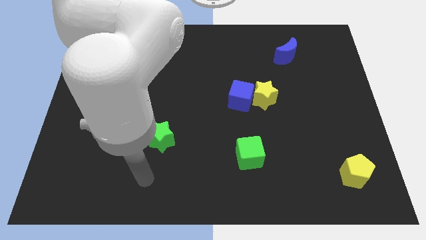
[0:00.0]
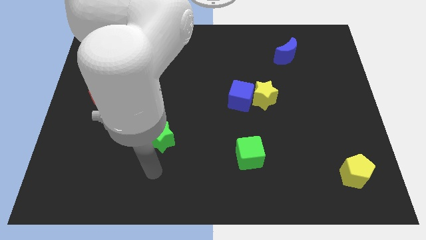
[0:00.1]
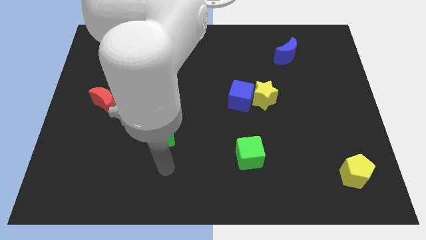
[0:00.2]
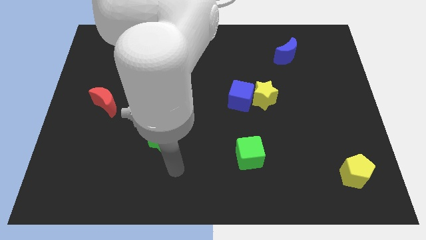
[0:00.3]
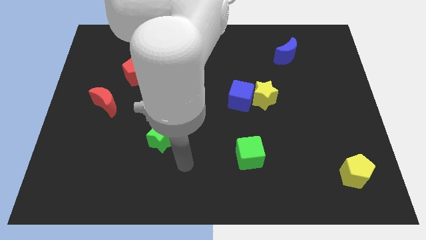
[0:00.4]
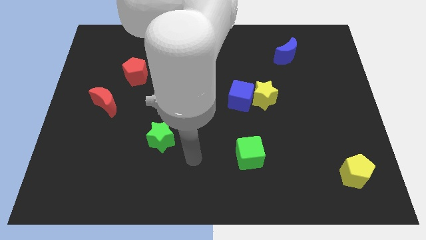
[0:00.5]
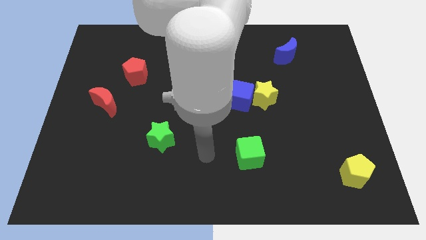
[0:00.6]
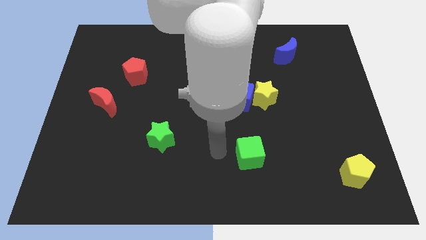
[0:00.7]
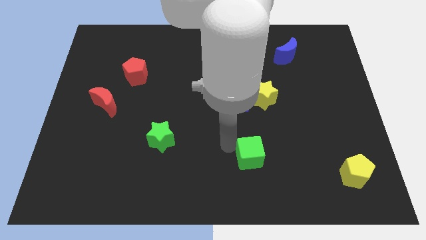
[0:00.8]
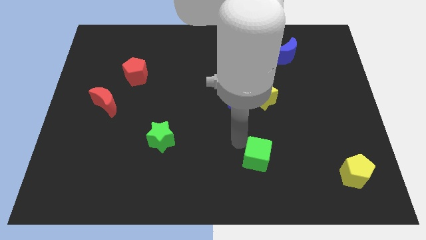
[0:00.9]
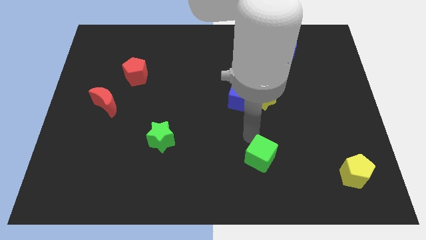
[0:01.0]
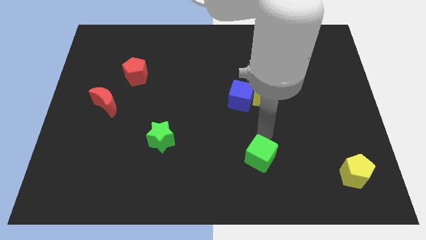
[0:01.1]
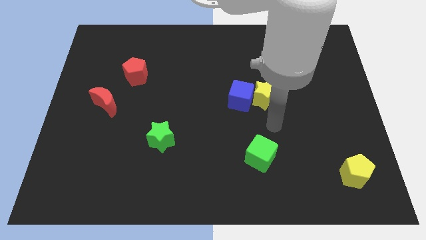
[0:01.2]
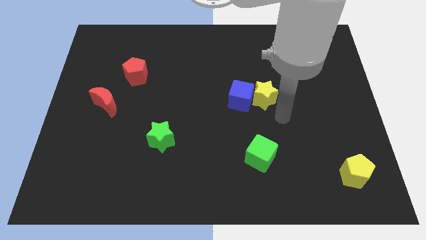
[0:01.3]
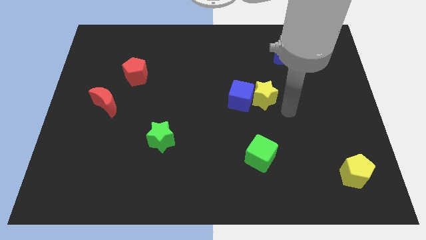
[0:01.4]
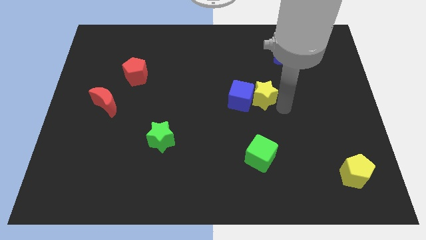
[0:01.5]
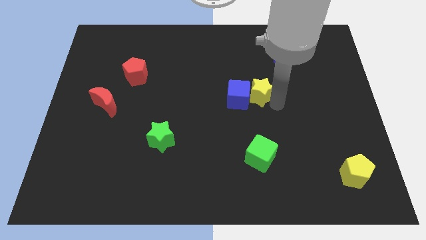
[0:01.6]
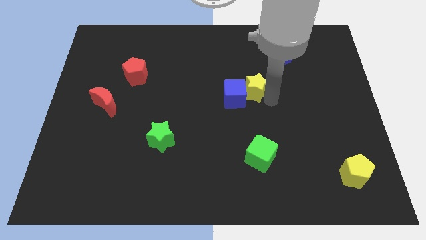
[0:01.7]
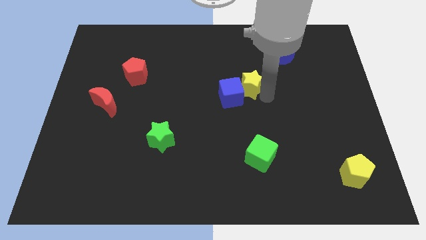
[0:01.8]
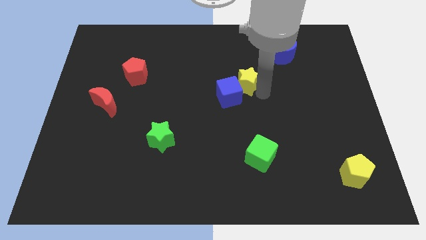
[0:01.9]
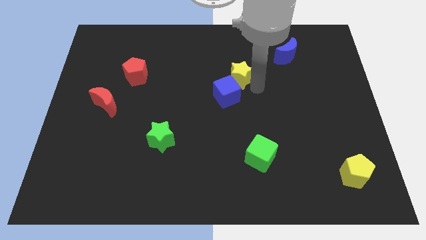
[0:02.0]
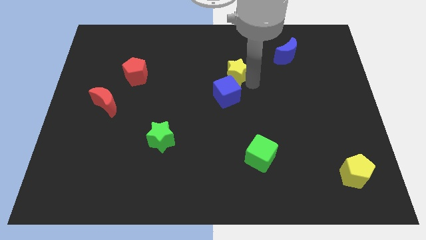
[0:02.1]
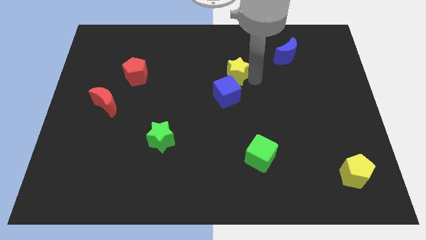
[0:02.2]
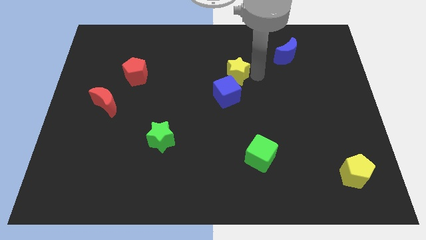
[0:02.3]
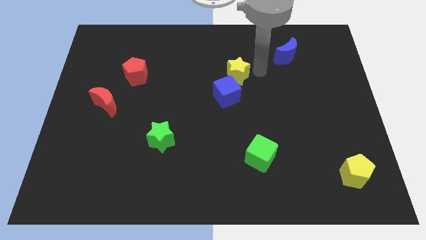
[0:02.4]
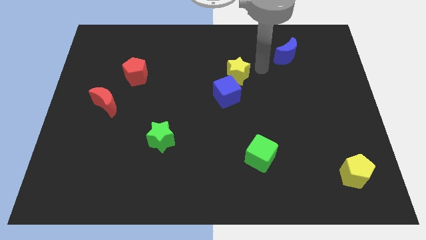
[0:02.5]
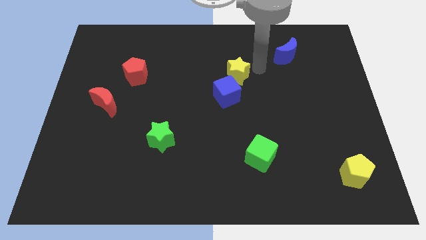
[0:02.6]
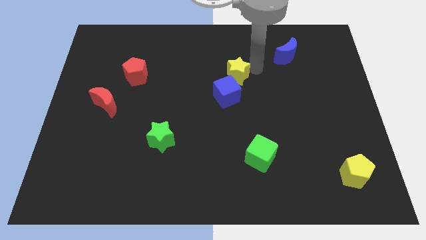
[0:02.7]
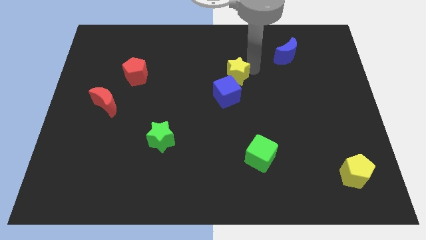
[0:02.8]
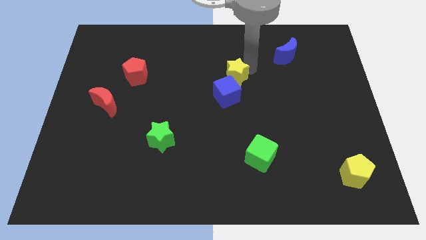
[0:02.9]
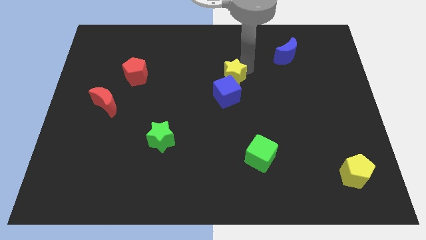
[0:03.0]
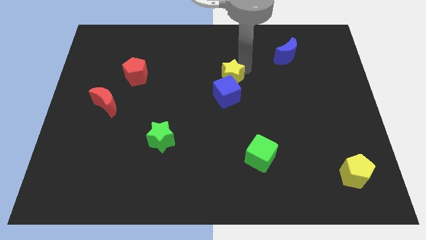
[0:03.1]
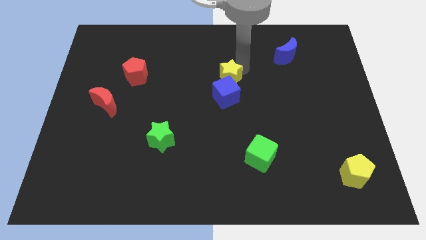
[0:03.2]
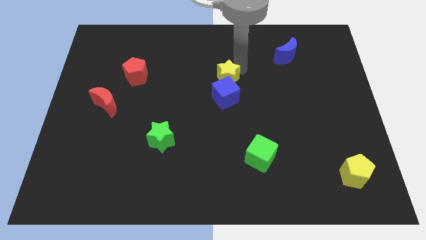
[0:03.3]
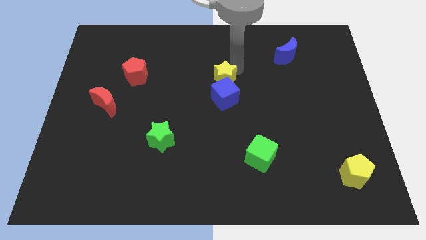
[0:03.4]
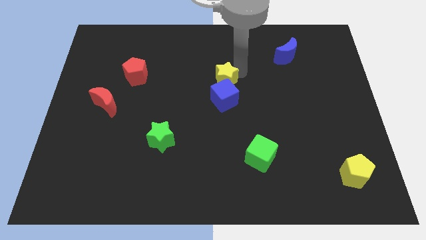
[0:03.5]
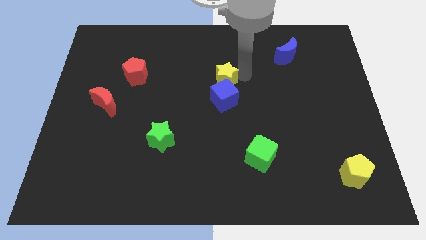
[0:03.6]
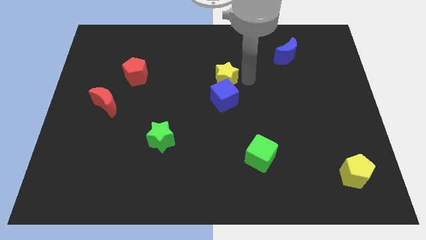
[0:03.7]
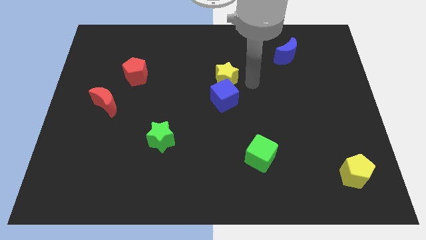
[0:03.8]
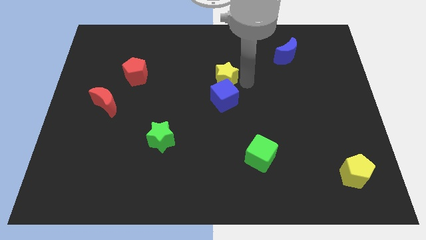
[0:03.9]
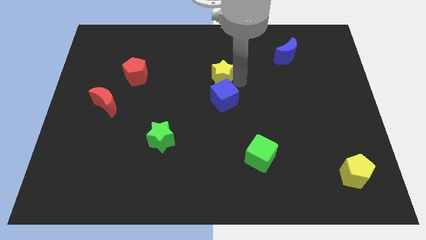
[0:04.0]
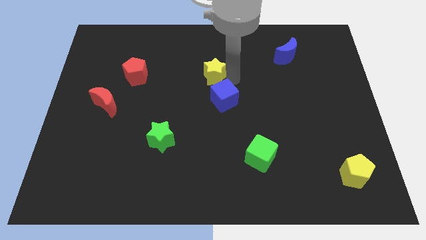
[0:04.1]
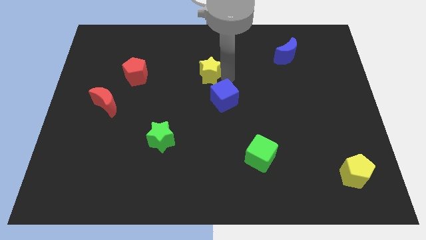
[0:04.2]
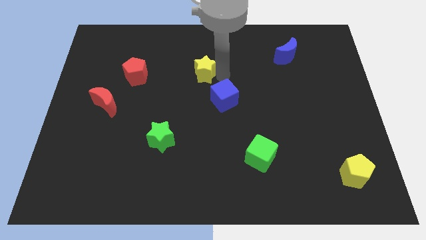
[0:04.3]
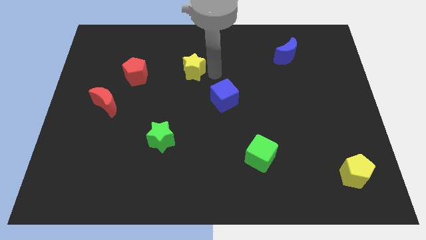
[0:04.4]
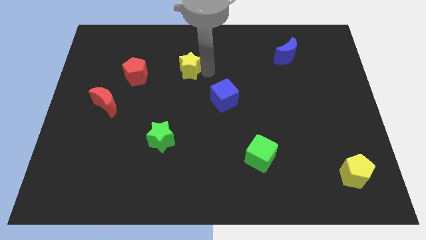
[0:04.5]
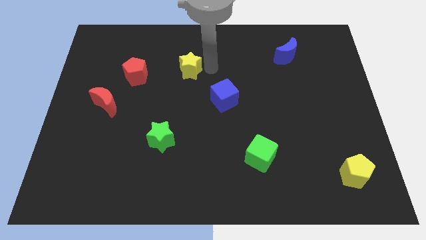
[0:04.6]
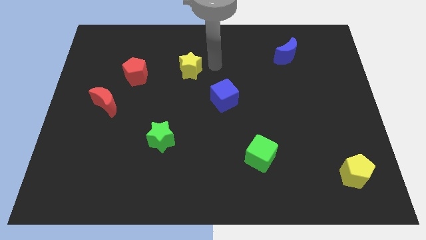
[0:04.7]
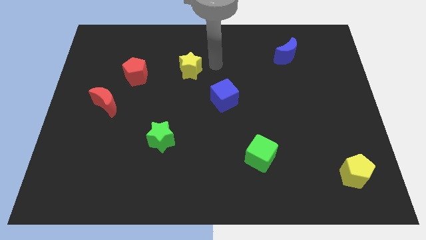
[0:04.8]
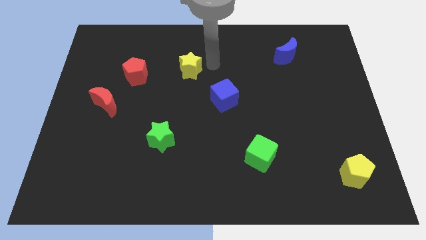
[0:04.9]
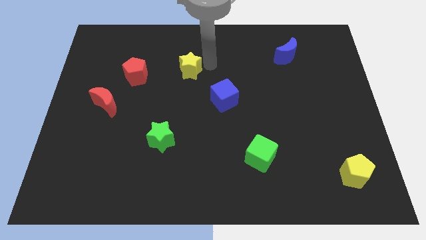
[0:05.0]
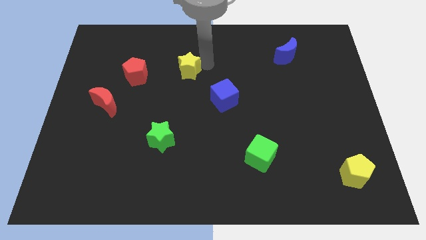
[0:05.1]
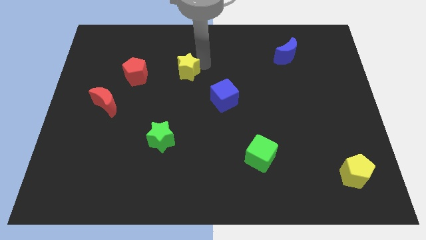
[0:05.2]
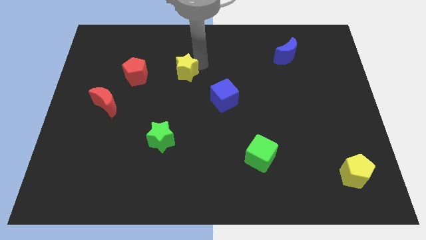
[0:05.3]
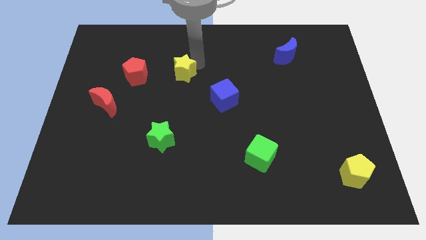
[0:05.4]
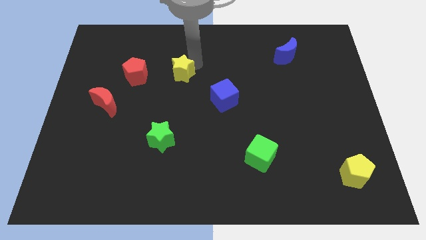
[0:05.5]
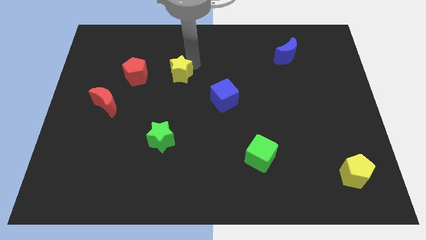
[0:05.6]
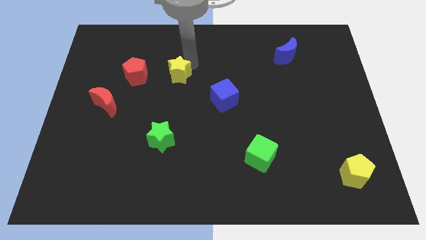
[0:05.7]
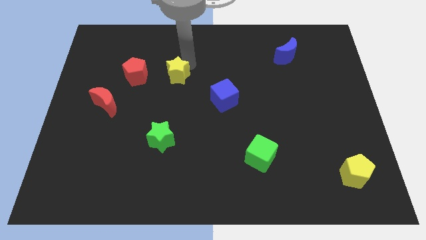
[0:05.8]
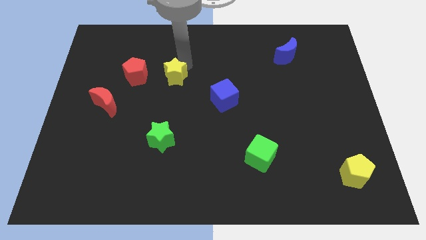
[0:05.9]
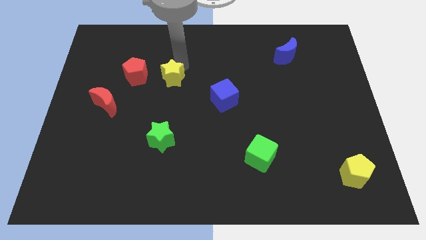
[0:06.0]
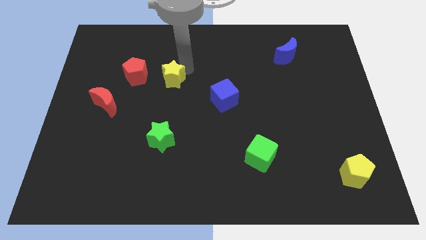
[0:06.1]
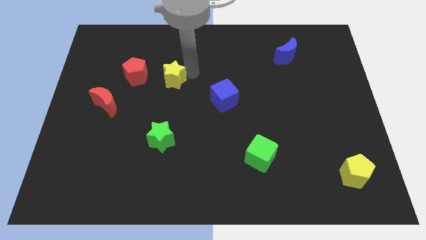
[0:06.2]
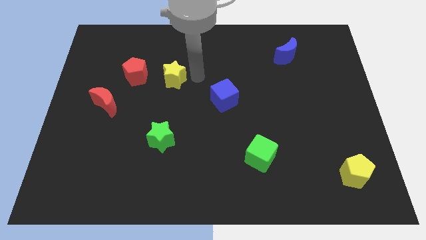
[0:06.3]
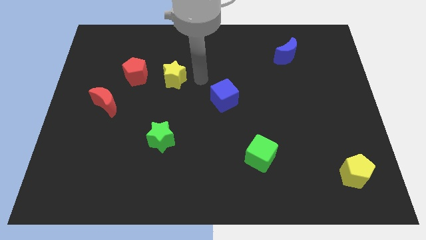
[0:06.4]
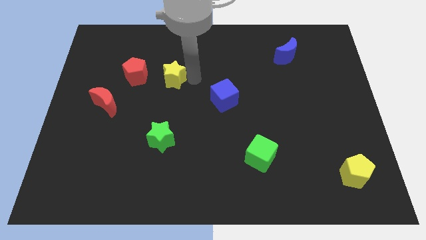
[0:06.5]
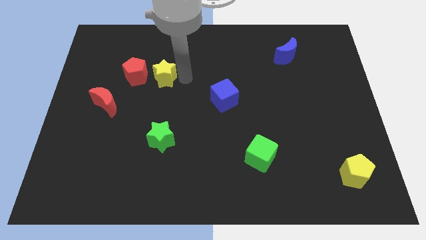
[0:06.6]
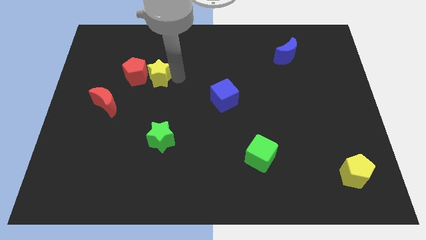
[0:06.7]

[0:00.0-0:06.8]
put the yellow star towards the red pentagon

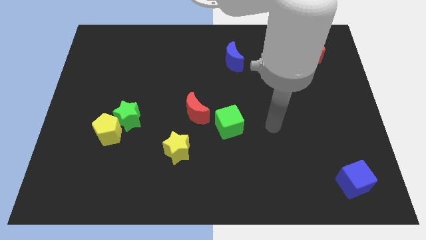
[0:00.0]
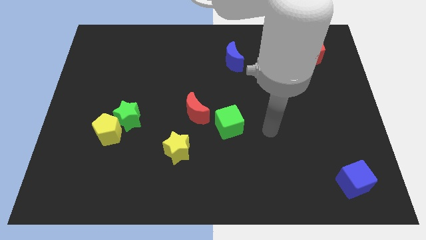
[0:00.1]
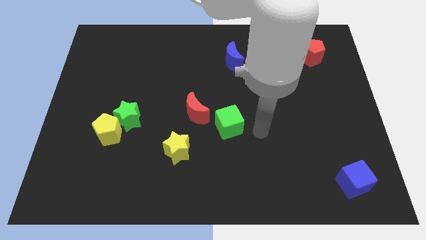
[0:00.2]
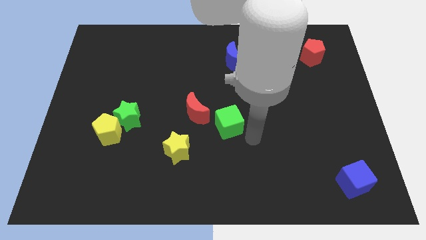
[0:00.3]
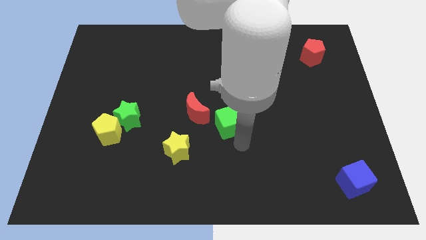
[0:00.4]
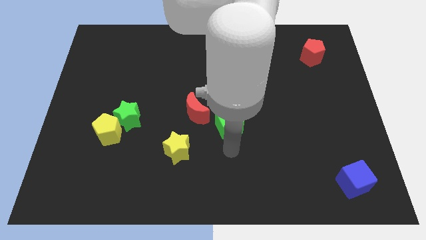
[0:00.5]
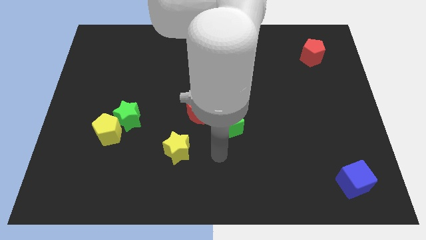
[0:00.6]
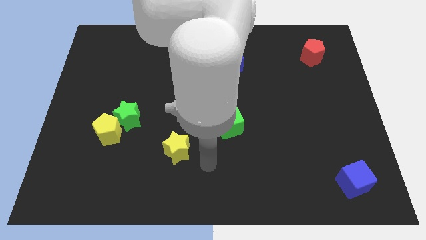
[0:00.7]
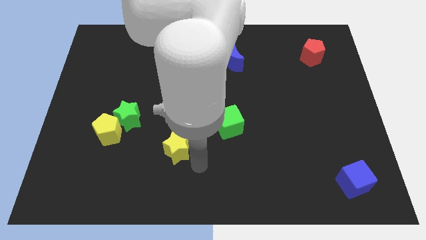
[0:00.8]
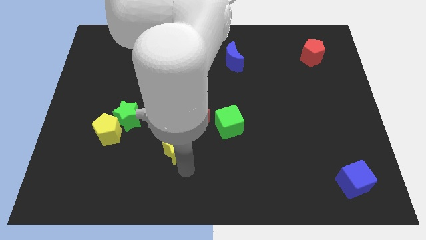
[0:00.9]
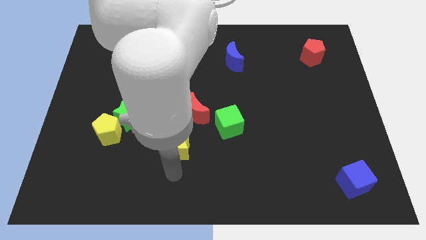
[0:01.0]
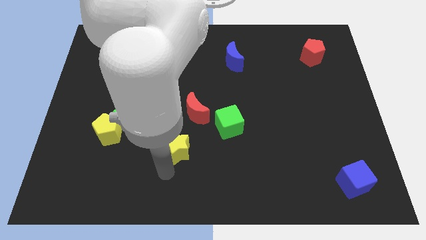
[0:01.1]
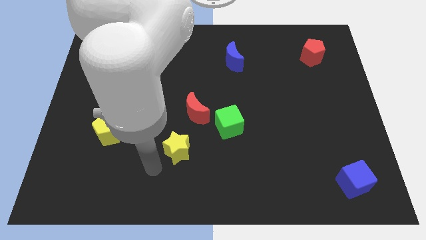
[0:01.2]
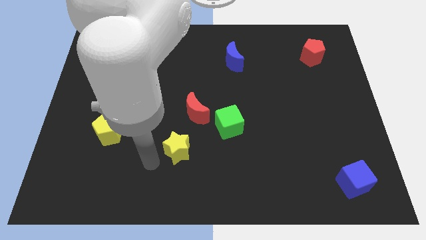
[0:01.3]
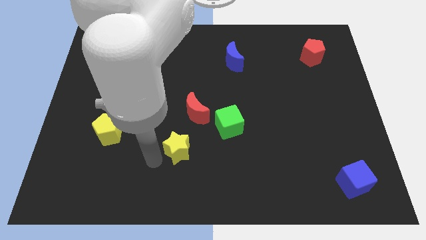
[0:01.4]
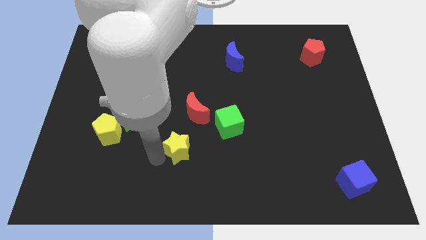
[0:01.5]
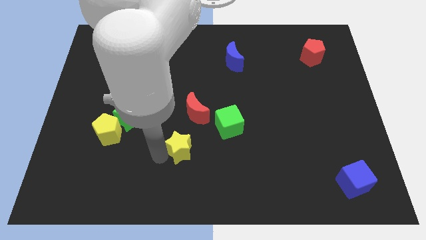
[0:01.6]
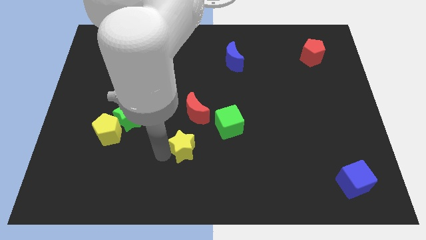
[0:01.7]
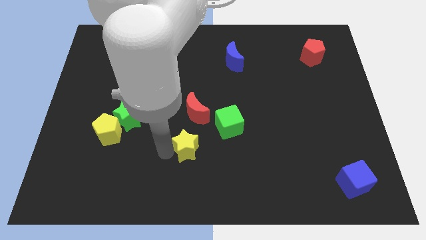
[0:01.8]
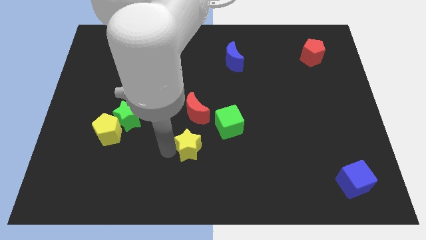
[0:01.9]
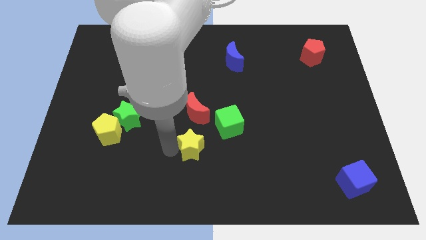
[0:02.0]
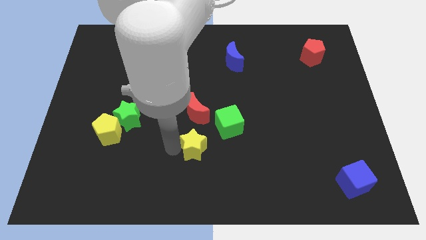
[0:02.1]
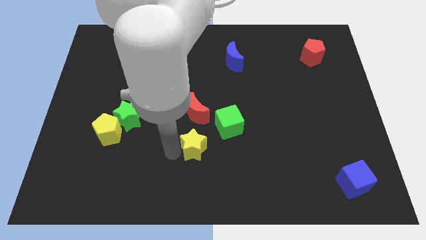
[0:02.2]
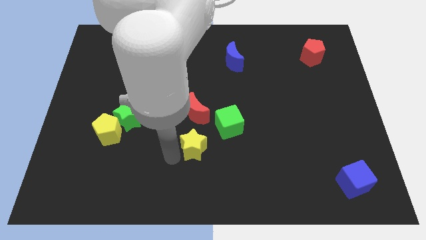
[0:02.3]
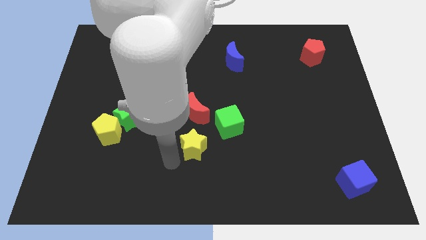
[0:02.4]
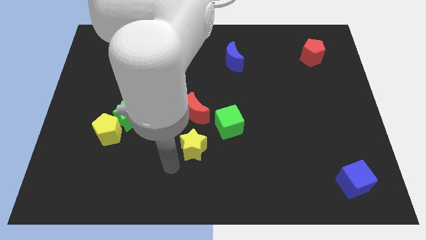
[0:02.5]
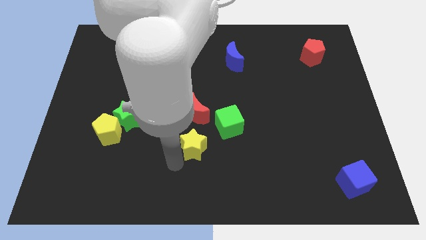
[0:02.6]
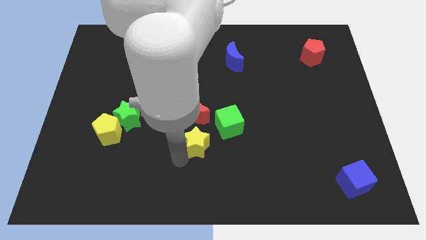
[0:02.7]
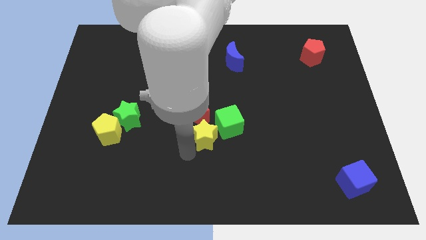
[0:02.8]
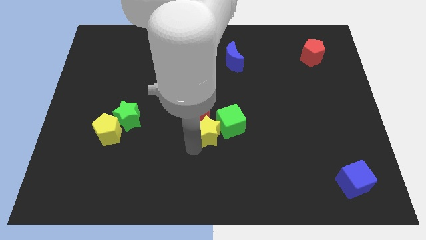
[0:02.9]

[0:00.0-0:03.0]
move the yellow star close to the green cube
